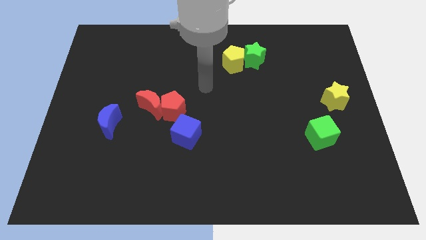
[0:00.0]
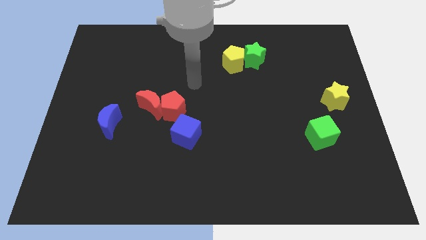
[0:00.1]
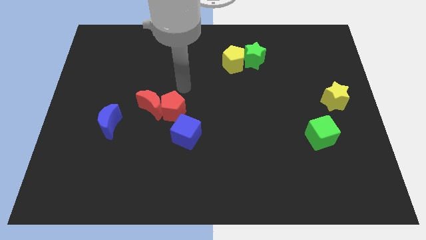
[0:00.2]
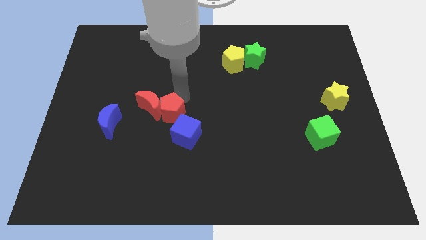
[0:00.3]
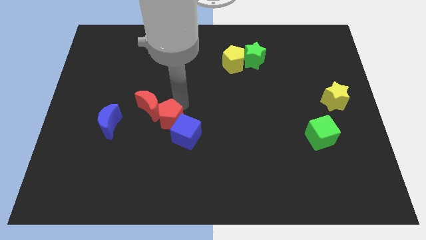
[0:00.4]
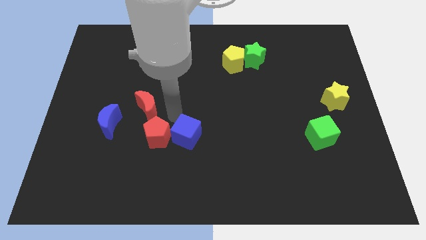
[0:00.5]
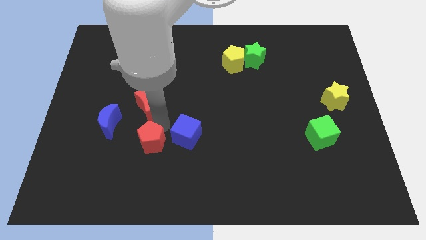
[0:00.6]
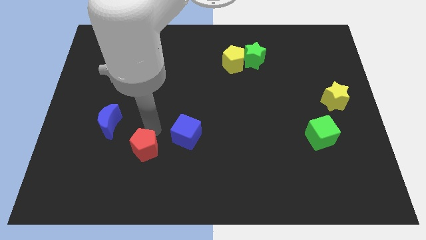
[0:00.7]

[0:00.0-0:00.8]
move the red moon away from the red pentagon

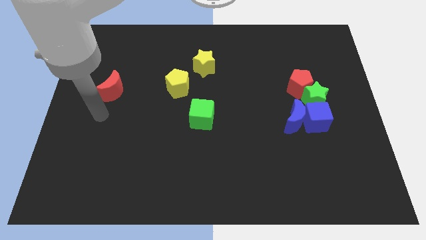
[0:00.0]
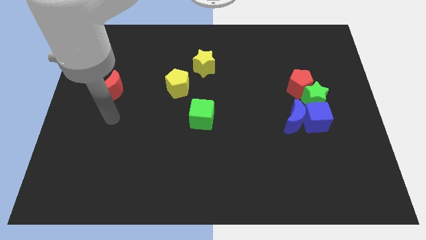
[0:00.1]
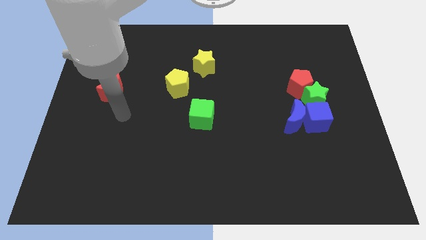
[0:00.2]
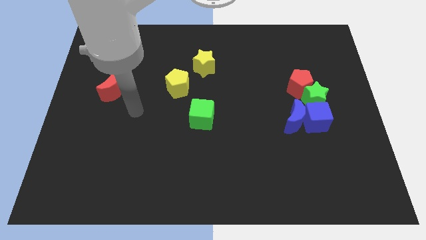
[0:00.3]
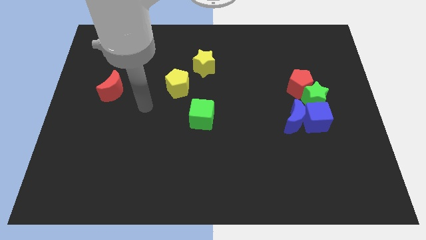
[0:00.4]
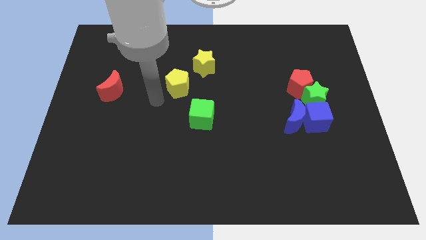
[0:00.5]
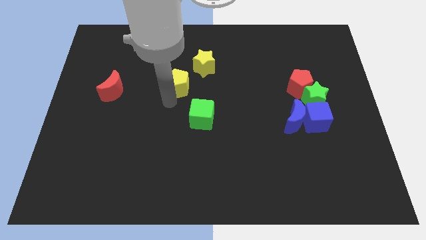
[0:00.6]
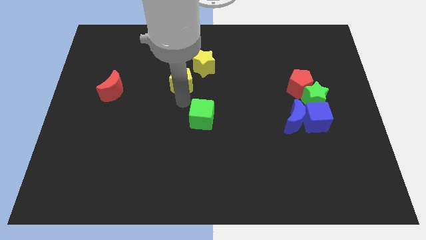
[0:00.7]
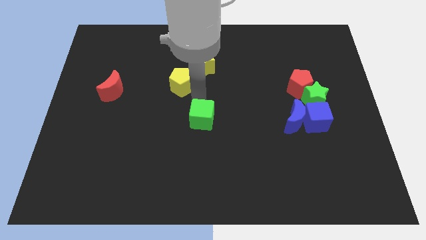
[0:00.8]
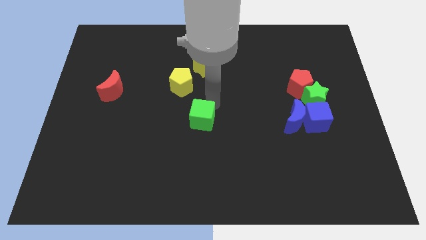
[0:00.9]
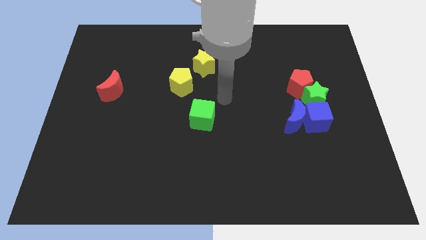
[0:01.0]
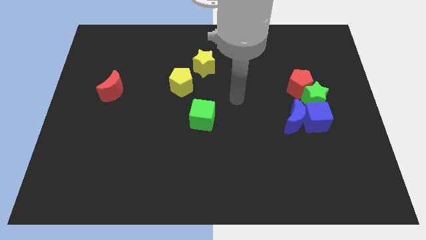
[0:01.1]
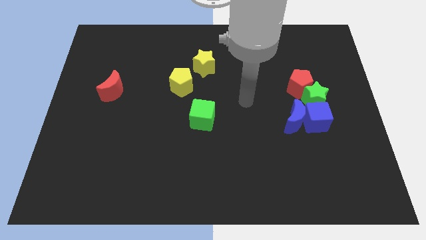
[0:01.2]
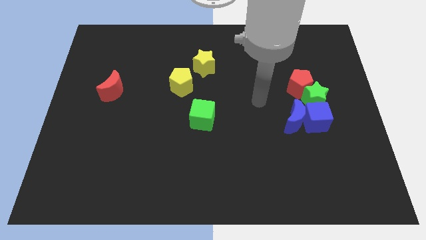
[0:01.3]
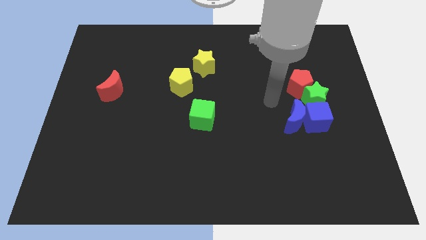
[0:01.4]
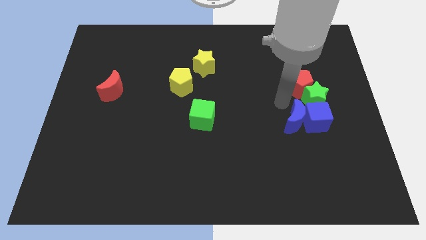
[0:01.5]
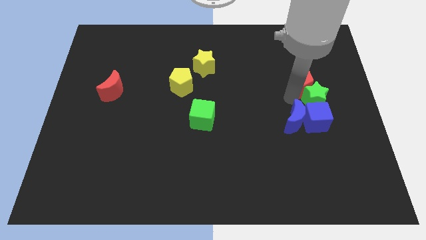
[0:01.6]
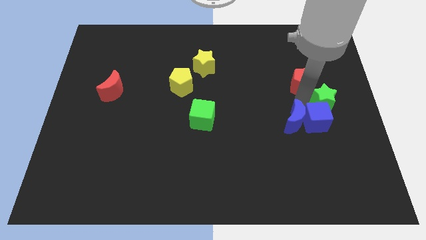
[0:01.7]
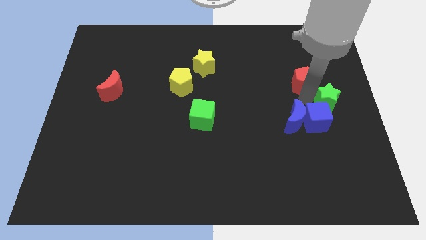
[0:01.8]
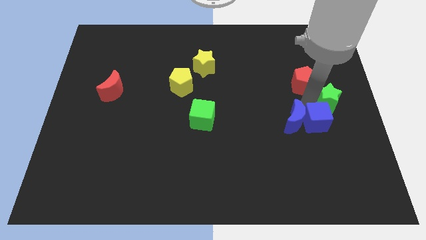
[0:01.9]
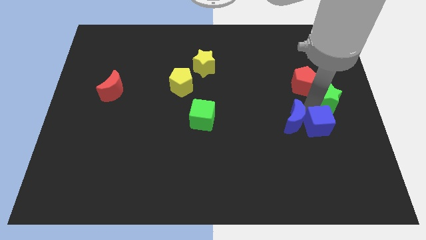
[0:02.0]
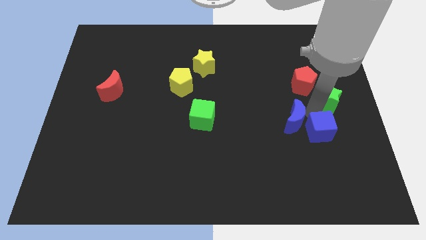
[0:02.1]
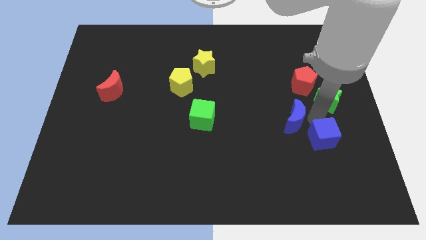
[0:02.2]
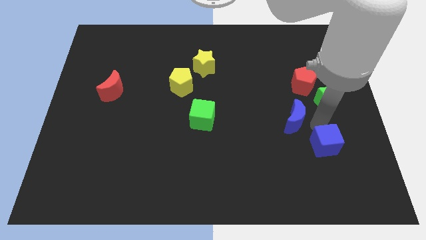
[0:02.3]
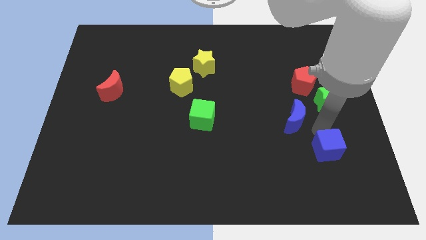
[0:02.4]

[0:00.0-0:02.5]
move the blue cube away from the blue moon and green star

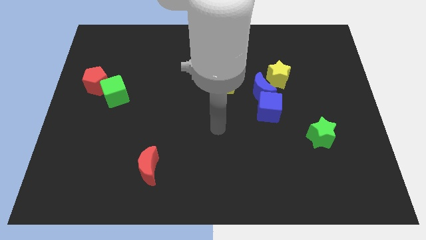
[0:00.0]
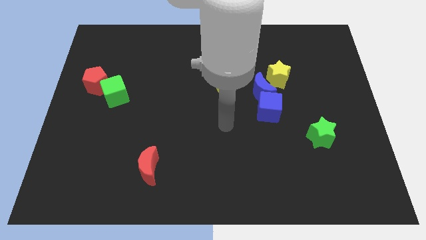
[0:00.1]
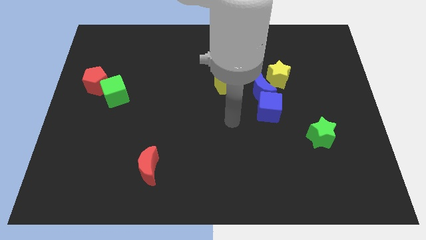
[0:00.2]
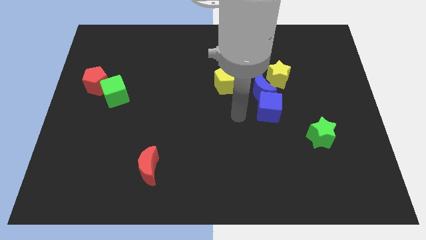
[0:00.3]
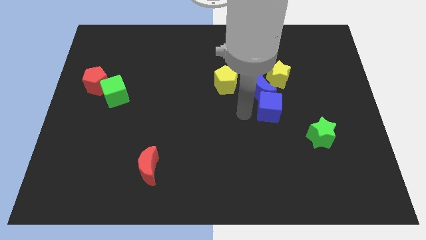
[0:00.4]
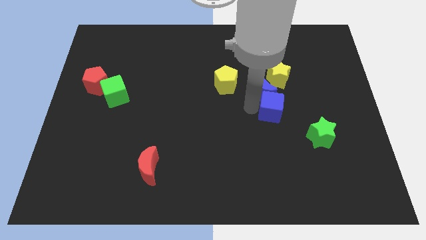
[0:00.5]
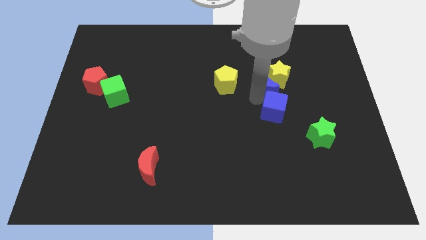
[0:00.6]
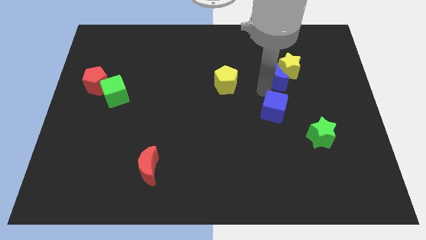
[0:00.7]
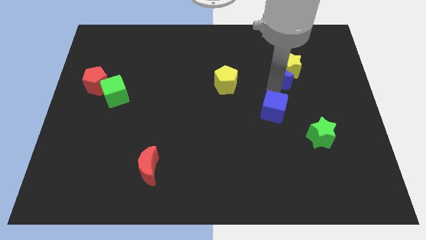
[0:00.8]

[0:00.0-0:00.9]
pull the blue cube apart from the blue moon

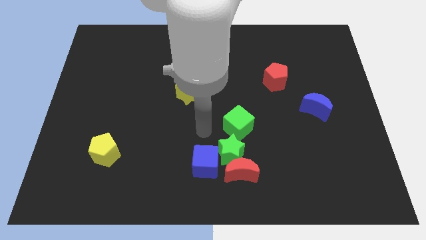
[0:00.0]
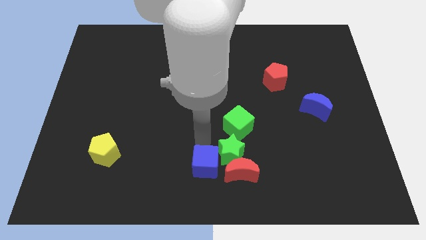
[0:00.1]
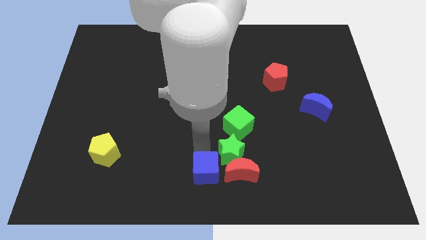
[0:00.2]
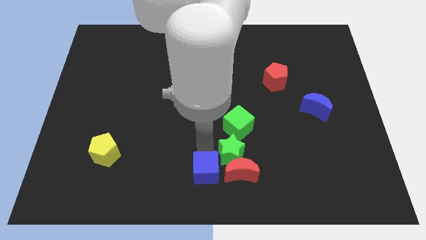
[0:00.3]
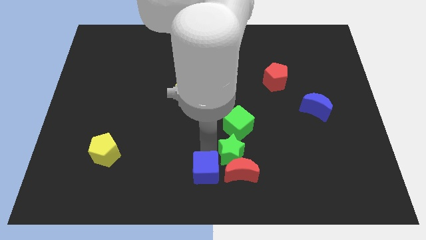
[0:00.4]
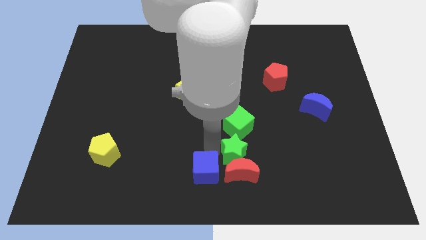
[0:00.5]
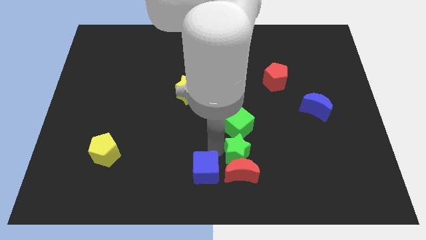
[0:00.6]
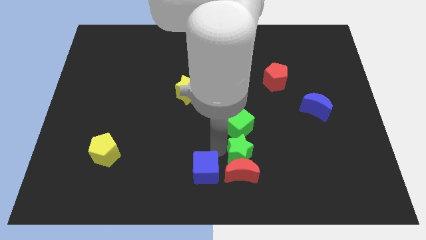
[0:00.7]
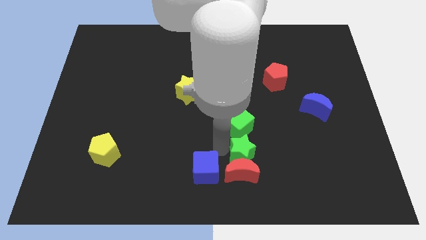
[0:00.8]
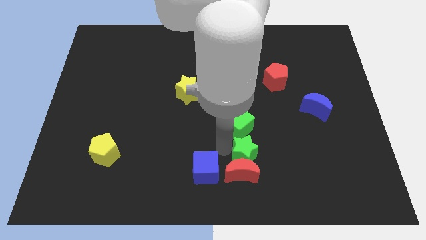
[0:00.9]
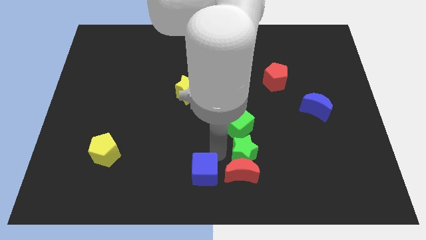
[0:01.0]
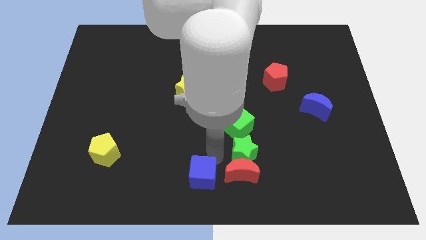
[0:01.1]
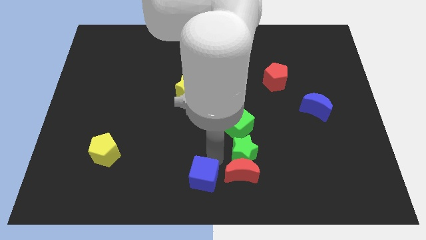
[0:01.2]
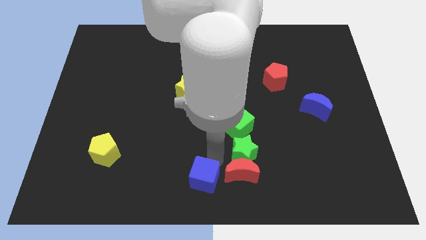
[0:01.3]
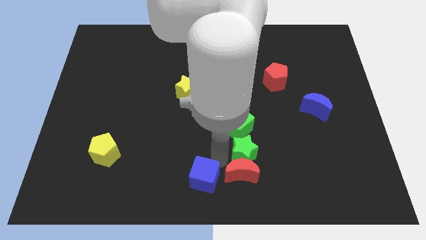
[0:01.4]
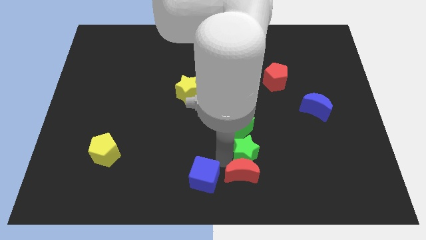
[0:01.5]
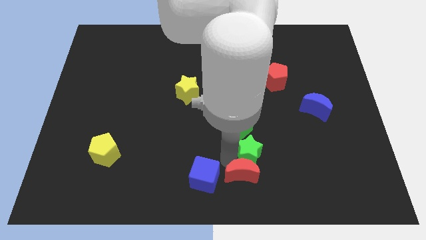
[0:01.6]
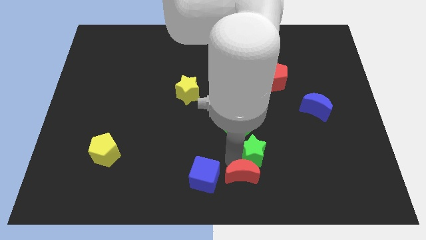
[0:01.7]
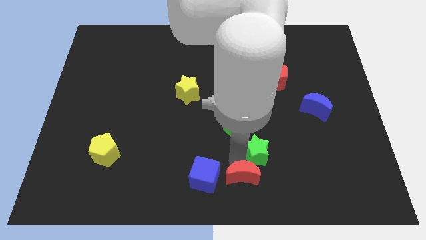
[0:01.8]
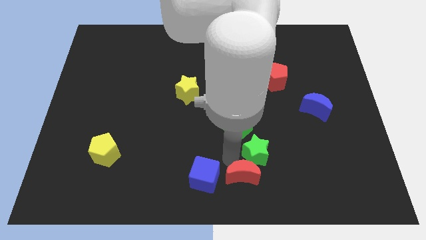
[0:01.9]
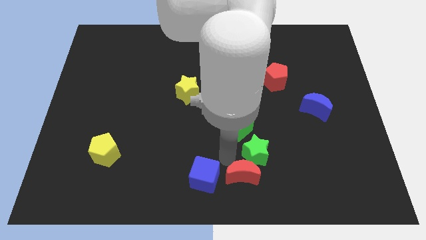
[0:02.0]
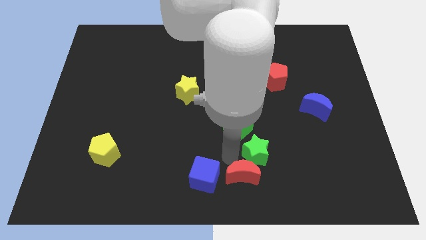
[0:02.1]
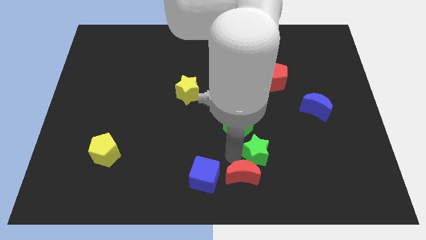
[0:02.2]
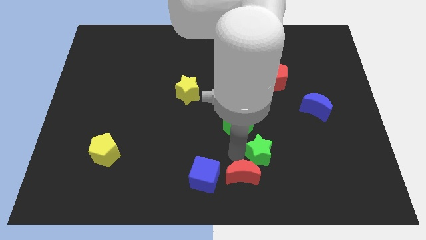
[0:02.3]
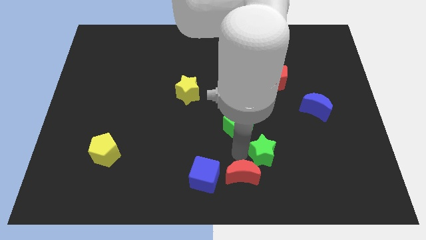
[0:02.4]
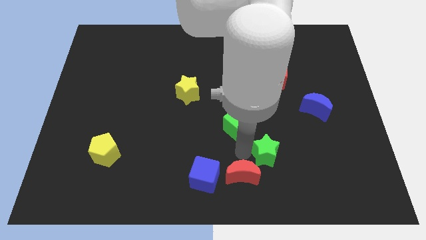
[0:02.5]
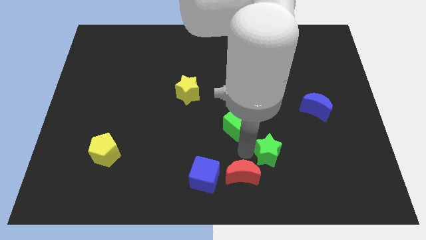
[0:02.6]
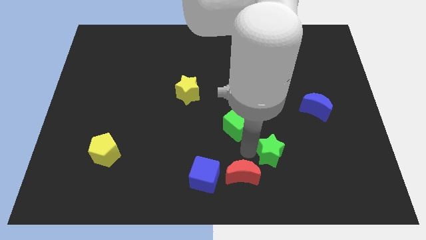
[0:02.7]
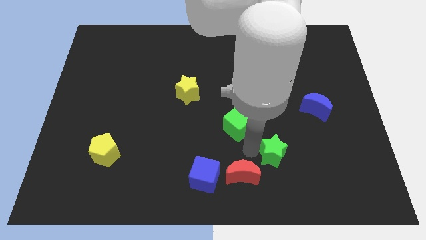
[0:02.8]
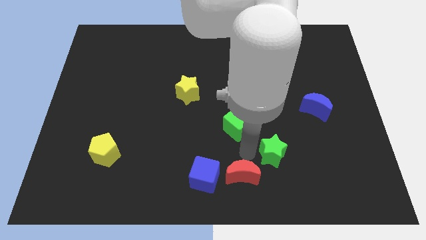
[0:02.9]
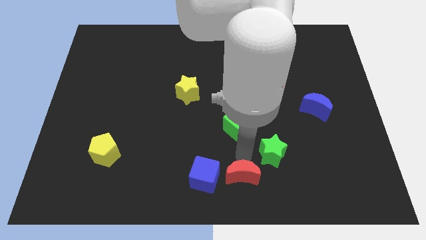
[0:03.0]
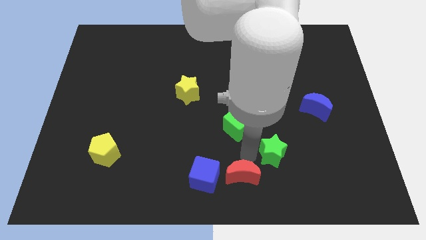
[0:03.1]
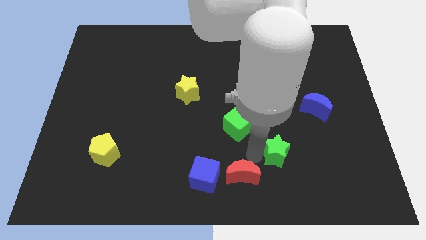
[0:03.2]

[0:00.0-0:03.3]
pull the green star apart from the red moon, blue cube, and green cube

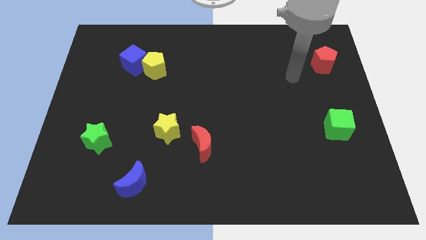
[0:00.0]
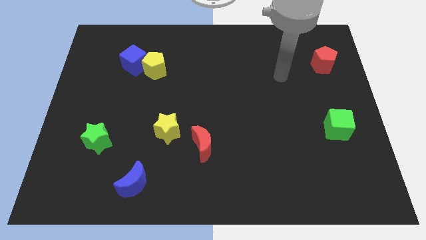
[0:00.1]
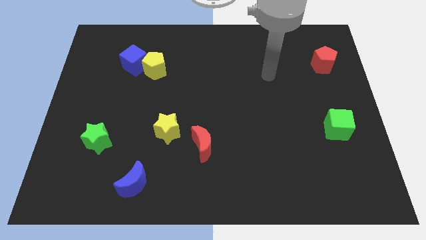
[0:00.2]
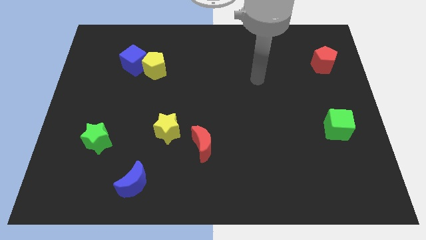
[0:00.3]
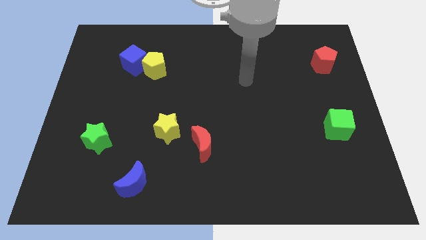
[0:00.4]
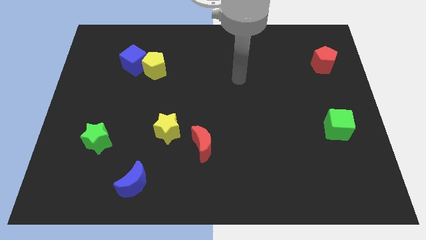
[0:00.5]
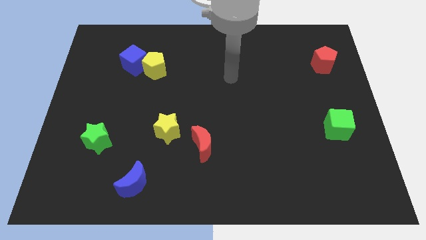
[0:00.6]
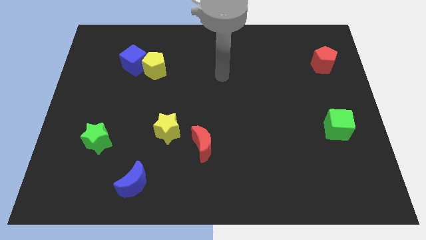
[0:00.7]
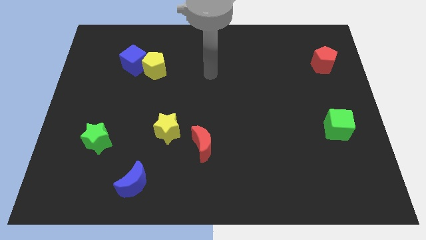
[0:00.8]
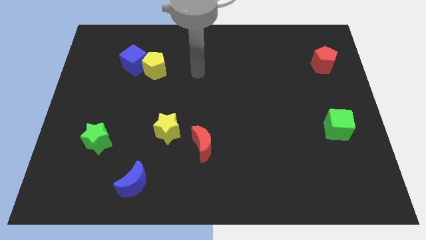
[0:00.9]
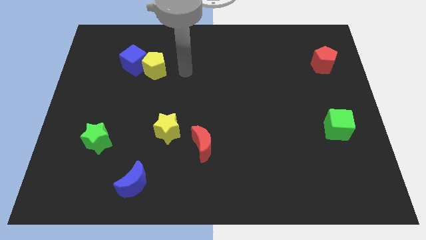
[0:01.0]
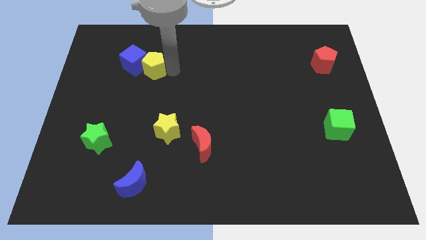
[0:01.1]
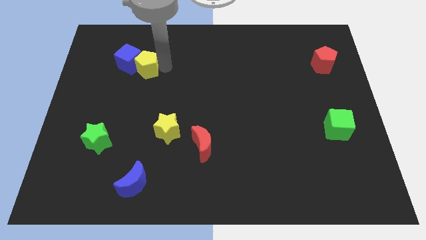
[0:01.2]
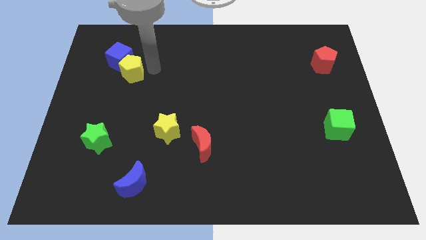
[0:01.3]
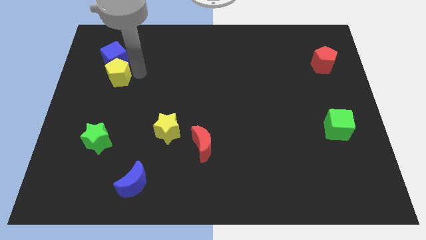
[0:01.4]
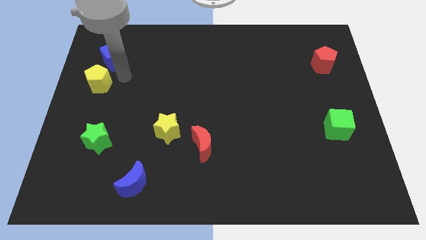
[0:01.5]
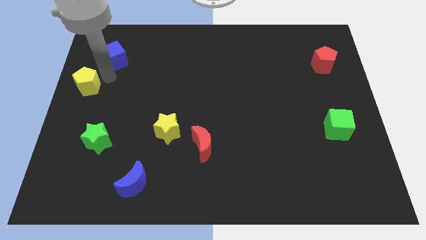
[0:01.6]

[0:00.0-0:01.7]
move the blue cube away from the yellow pentagon
